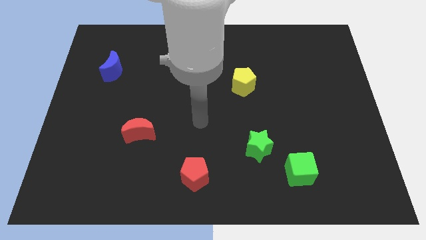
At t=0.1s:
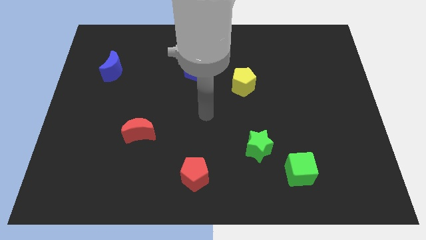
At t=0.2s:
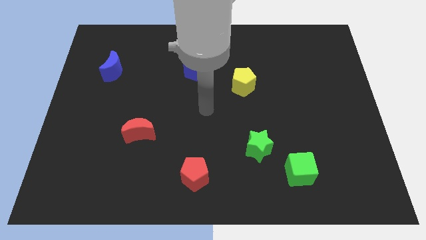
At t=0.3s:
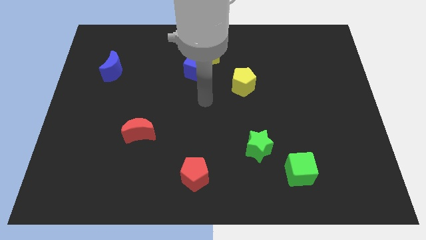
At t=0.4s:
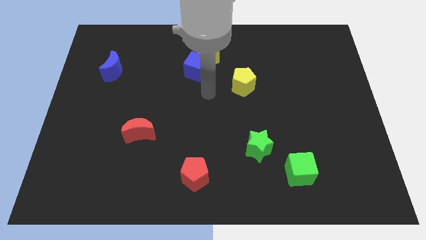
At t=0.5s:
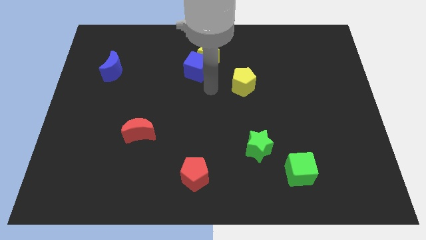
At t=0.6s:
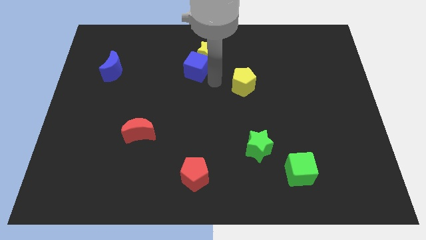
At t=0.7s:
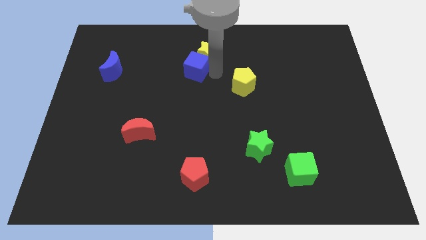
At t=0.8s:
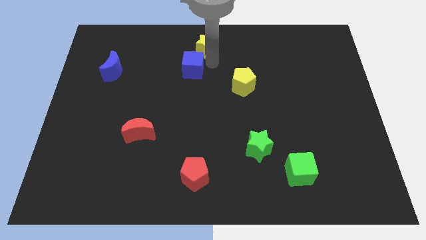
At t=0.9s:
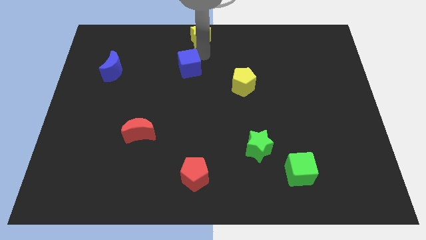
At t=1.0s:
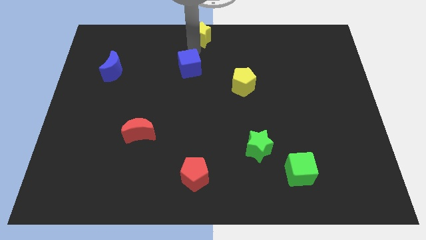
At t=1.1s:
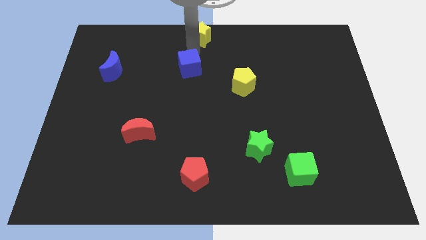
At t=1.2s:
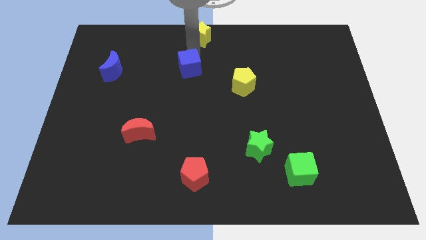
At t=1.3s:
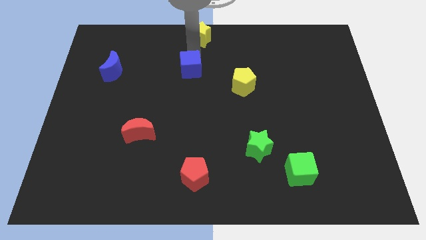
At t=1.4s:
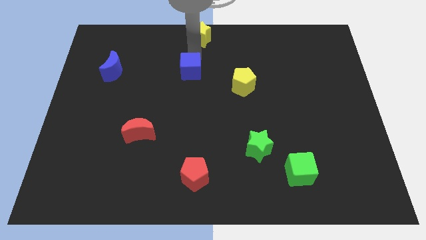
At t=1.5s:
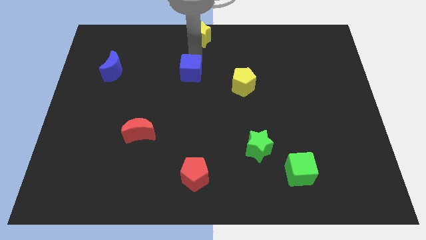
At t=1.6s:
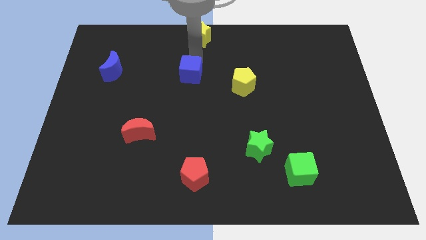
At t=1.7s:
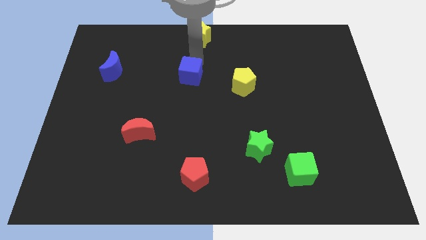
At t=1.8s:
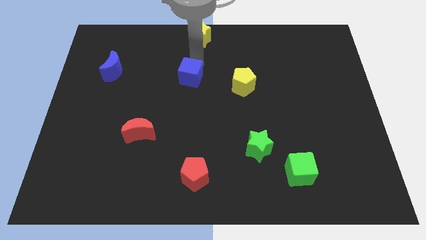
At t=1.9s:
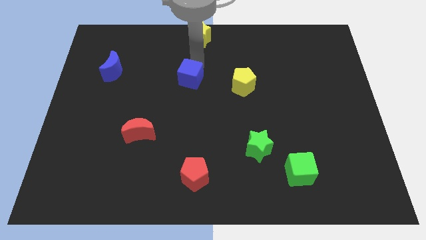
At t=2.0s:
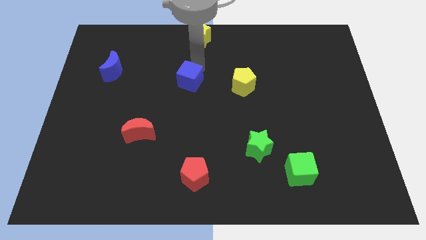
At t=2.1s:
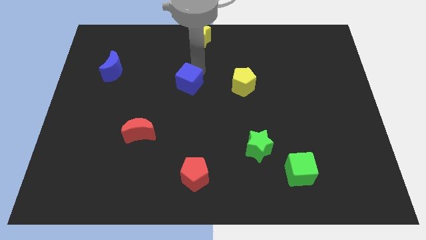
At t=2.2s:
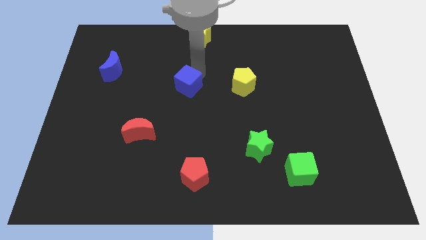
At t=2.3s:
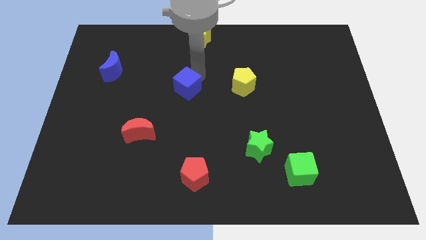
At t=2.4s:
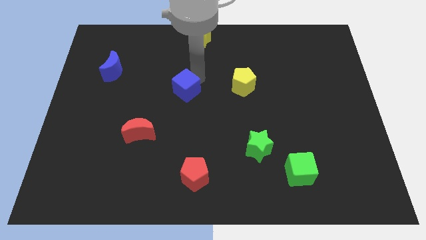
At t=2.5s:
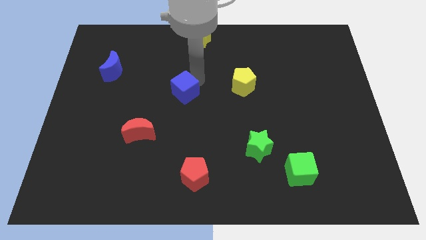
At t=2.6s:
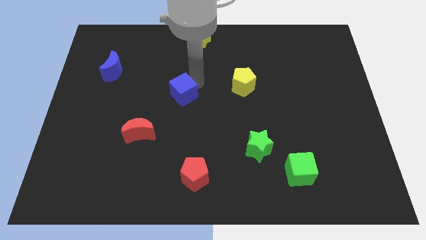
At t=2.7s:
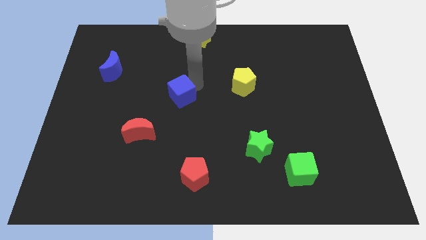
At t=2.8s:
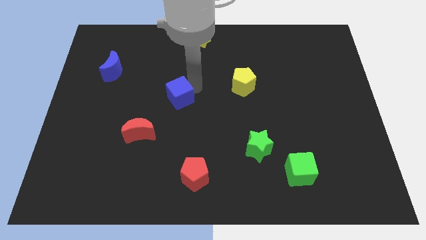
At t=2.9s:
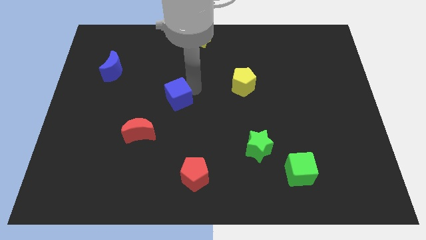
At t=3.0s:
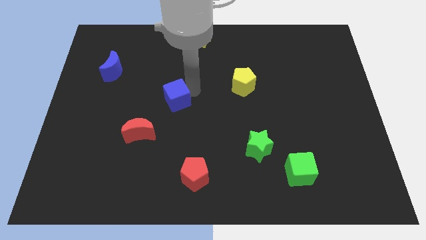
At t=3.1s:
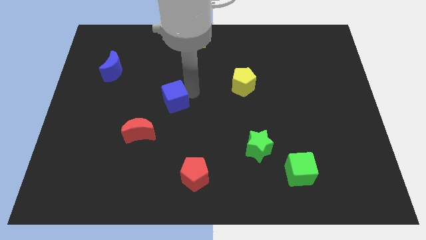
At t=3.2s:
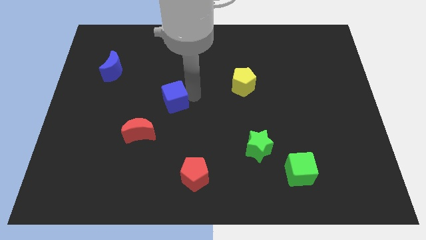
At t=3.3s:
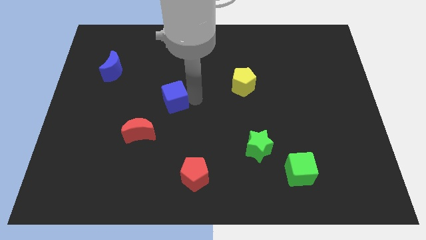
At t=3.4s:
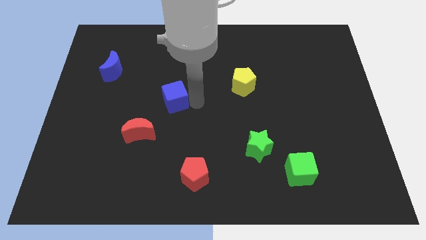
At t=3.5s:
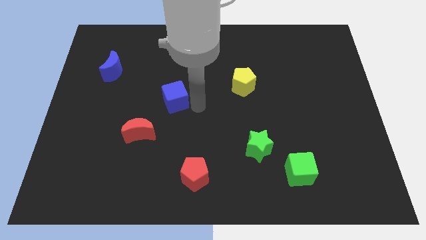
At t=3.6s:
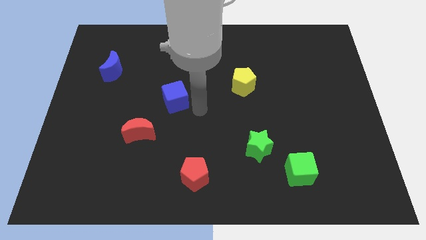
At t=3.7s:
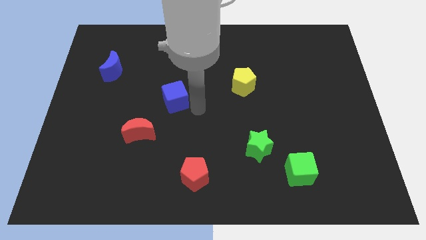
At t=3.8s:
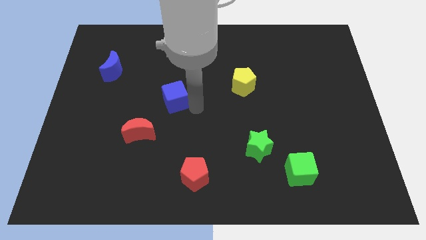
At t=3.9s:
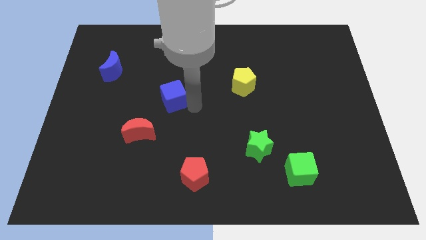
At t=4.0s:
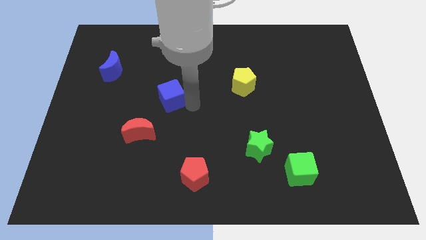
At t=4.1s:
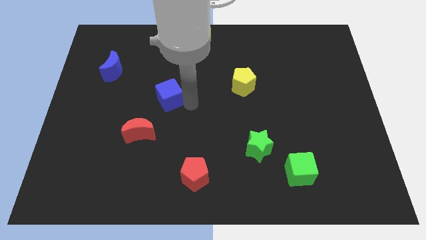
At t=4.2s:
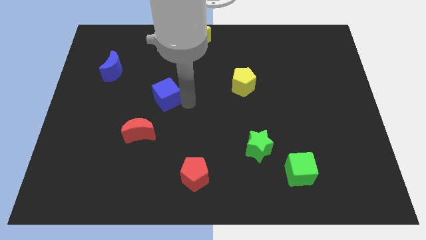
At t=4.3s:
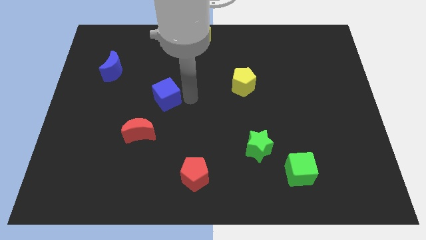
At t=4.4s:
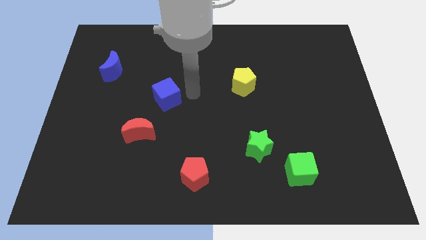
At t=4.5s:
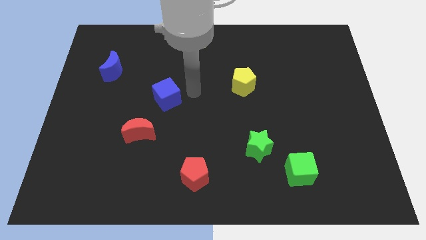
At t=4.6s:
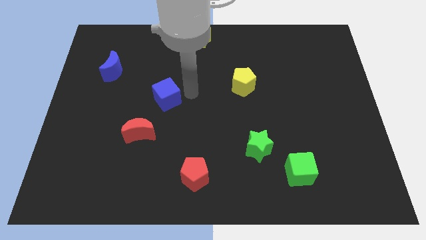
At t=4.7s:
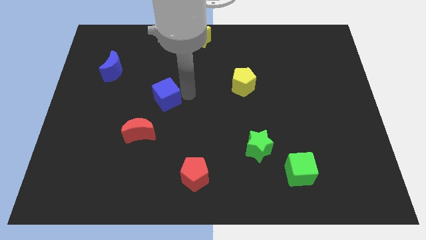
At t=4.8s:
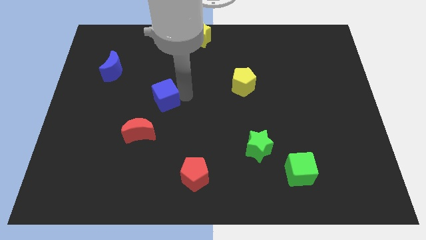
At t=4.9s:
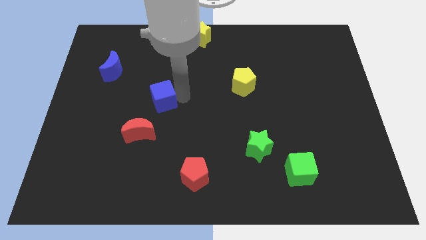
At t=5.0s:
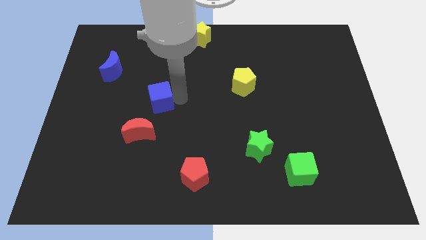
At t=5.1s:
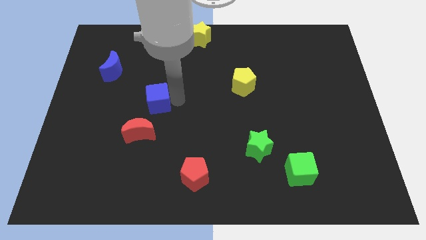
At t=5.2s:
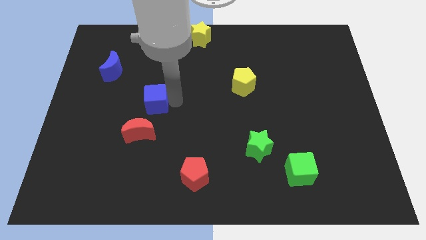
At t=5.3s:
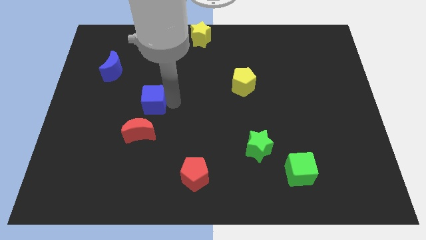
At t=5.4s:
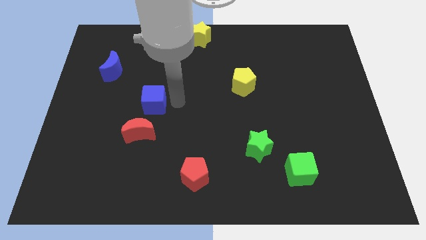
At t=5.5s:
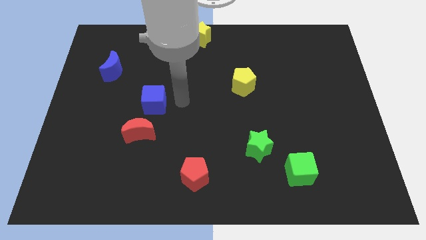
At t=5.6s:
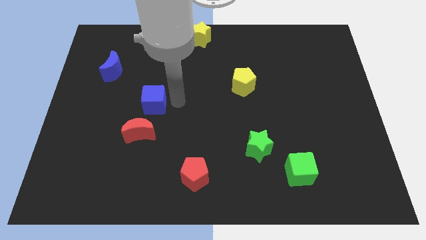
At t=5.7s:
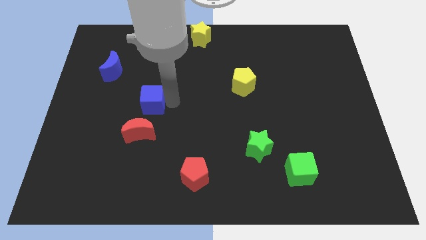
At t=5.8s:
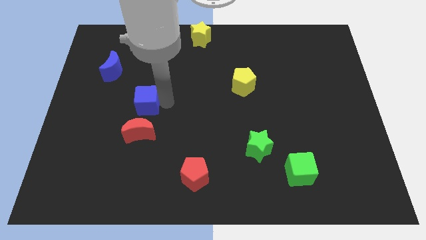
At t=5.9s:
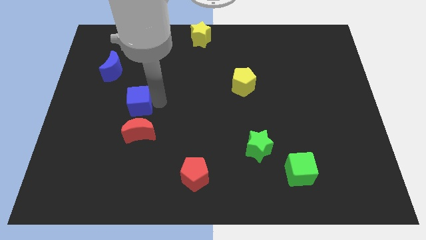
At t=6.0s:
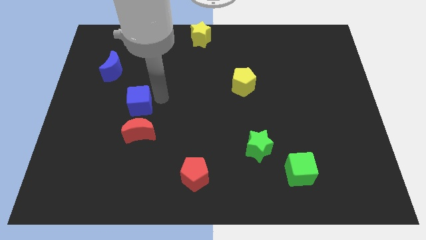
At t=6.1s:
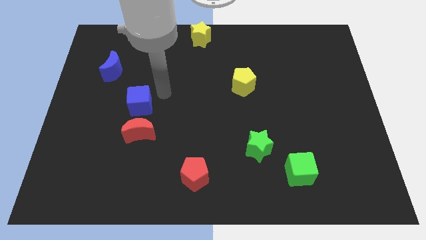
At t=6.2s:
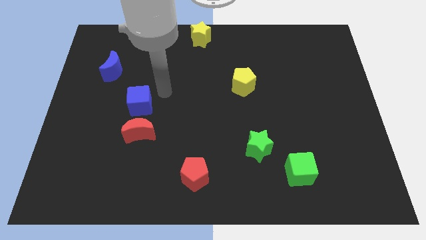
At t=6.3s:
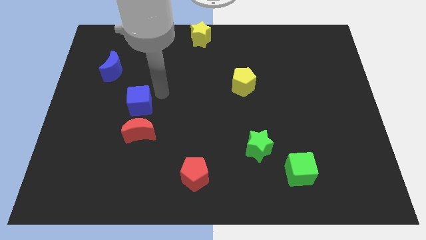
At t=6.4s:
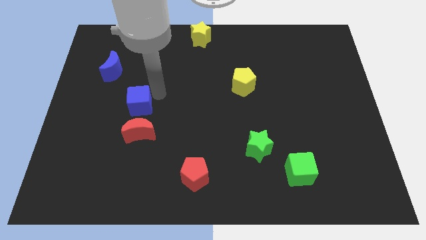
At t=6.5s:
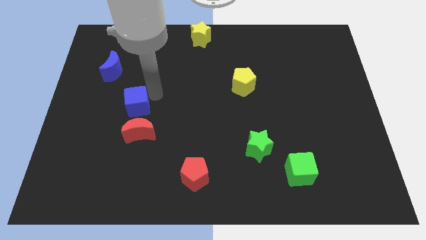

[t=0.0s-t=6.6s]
put the blue cube to the top left of the red moon

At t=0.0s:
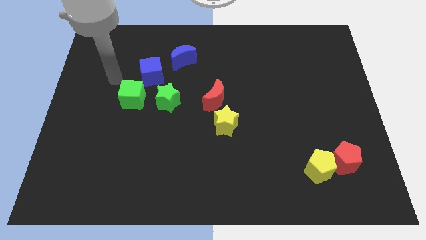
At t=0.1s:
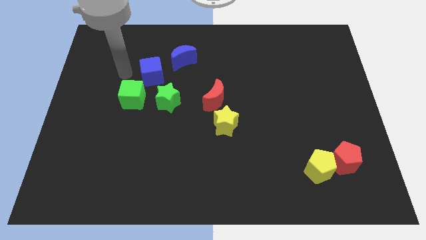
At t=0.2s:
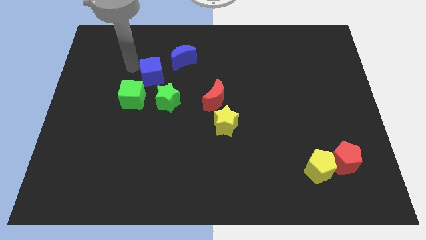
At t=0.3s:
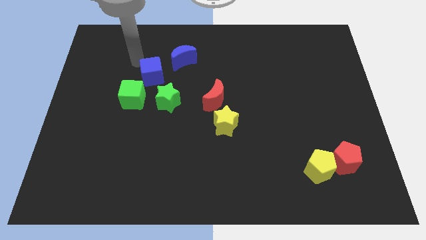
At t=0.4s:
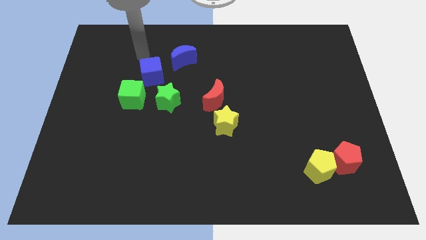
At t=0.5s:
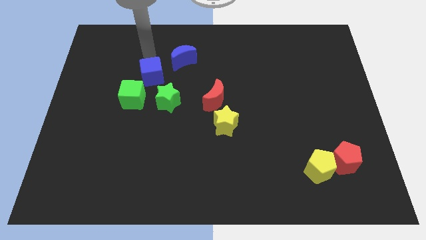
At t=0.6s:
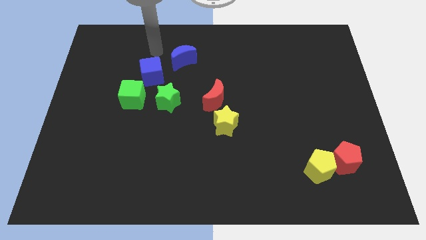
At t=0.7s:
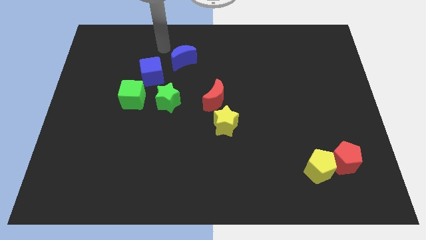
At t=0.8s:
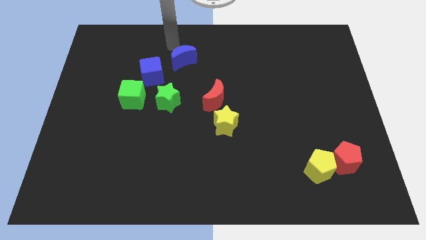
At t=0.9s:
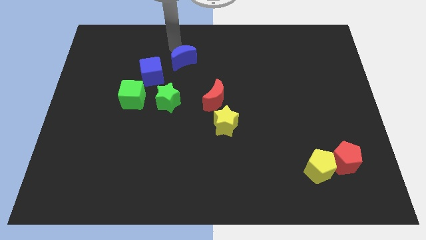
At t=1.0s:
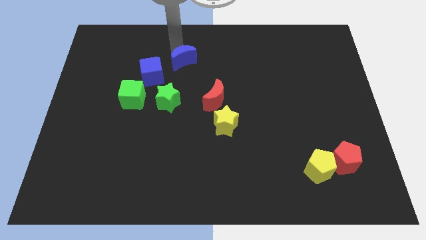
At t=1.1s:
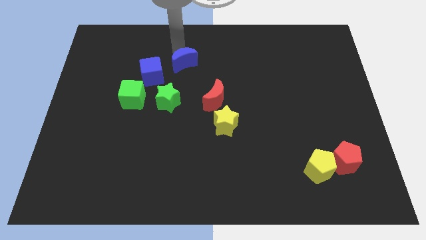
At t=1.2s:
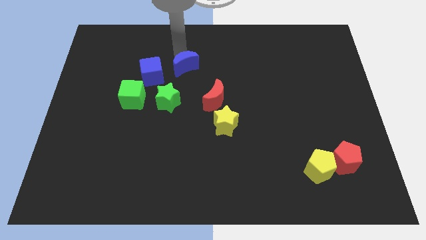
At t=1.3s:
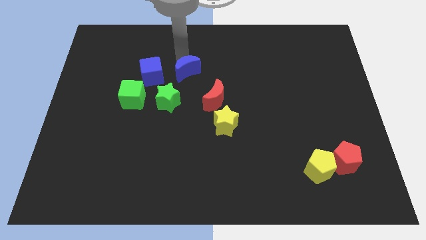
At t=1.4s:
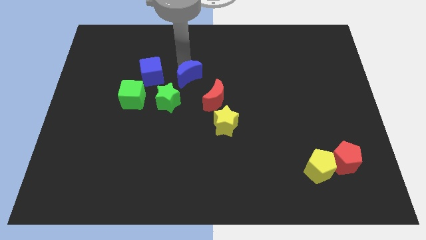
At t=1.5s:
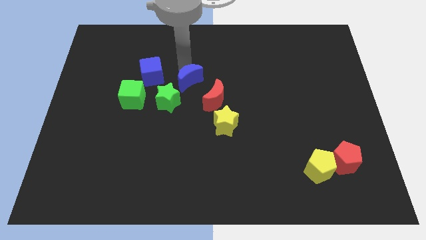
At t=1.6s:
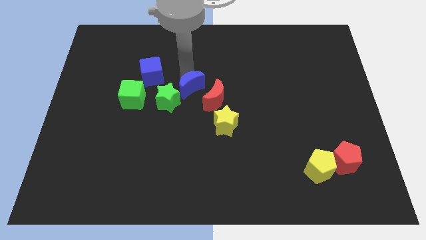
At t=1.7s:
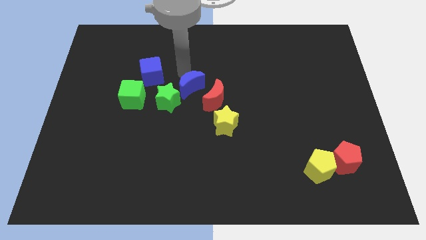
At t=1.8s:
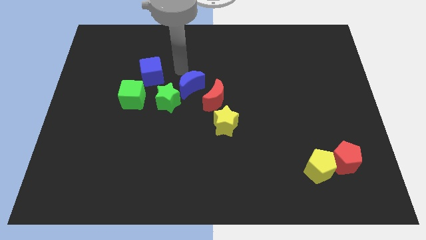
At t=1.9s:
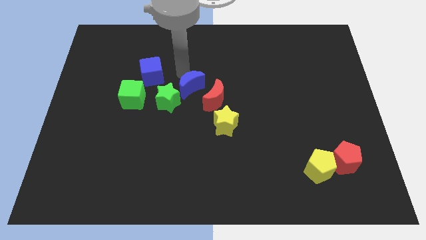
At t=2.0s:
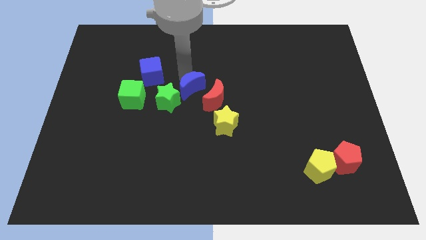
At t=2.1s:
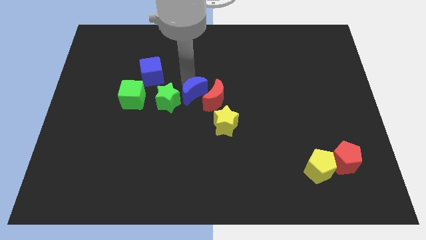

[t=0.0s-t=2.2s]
push the blue moon to the top left side of the yellow star
